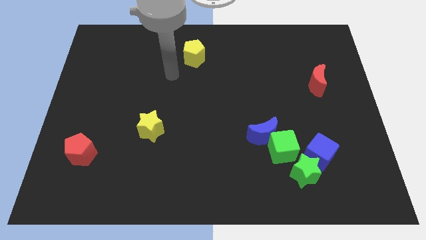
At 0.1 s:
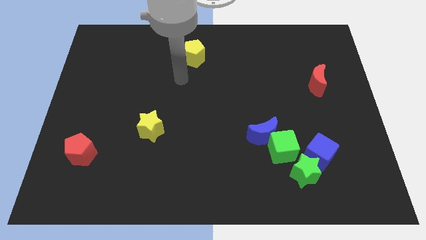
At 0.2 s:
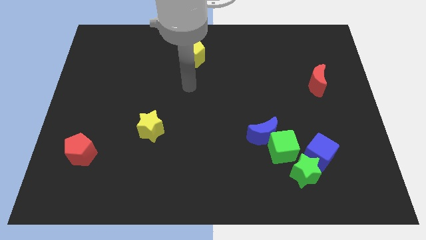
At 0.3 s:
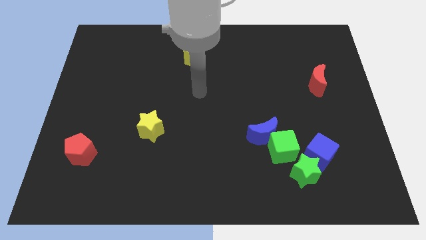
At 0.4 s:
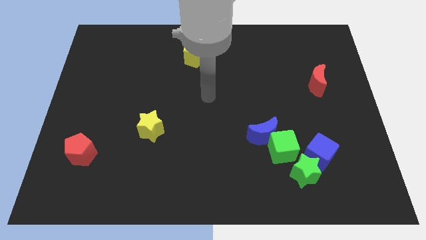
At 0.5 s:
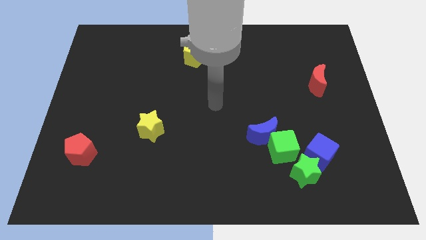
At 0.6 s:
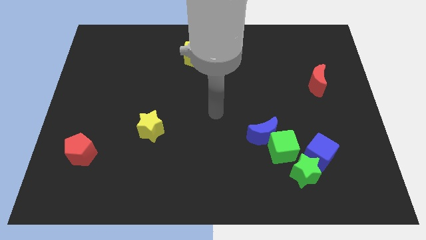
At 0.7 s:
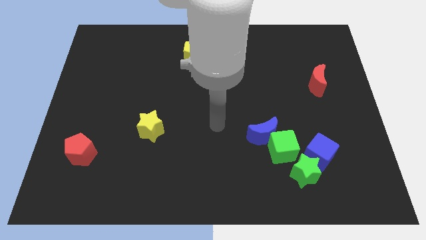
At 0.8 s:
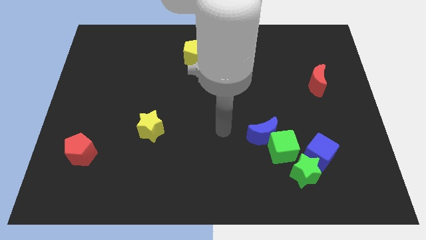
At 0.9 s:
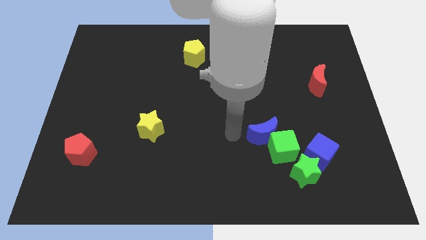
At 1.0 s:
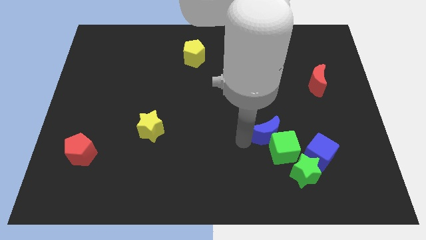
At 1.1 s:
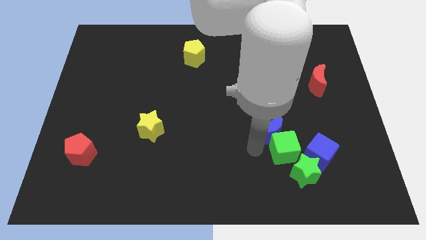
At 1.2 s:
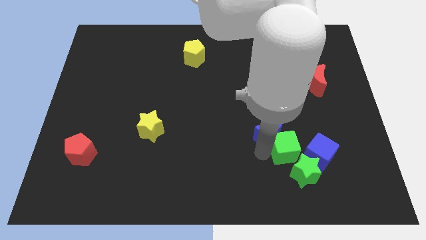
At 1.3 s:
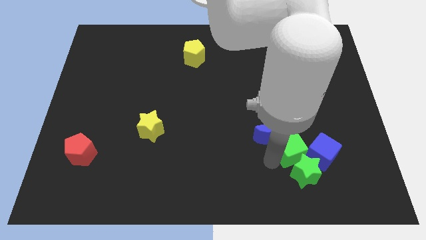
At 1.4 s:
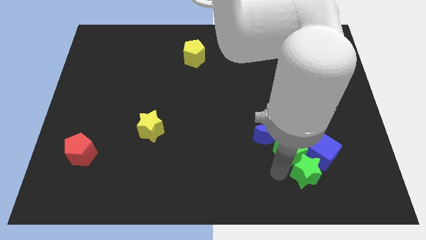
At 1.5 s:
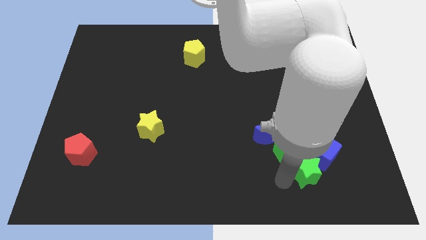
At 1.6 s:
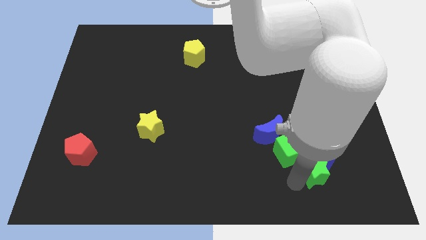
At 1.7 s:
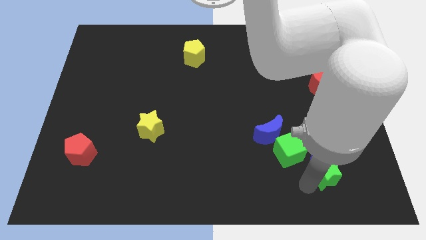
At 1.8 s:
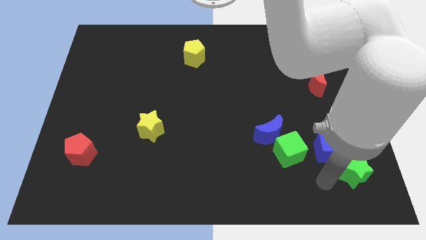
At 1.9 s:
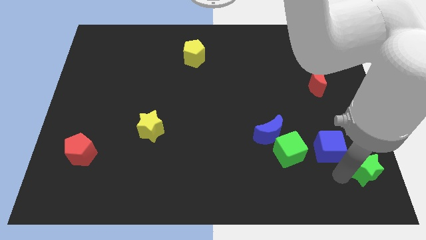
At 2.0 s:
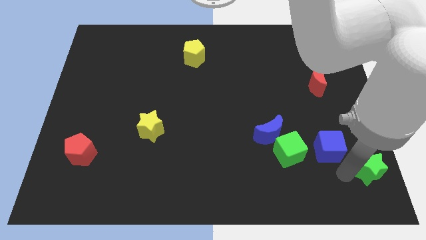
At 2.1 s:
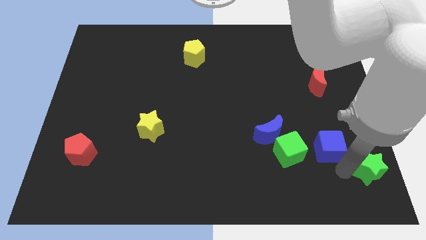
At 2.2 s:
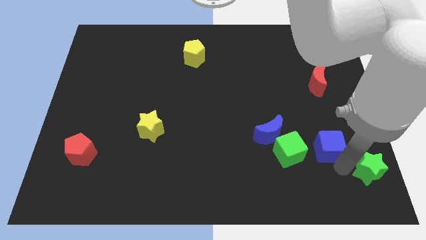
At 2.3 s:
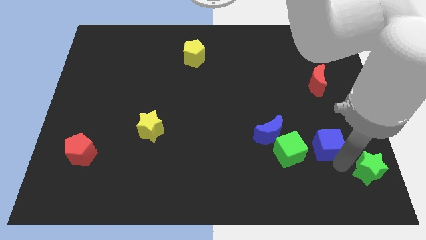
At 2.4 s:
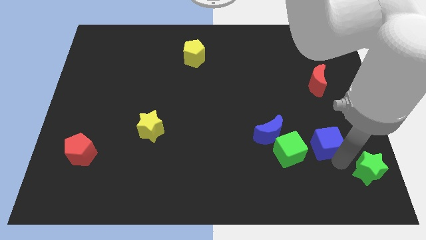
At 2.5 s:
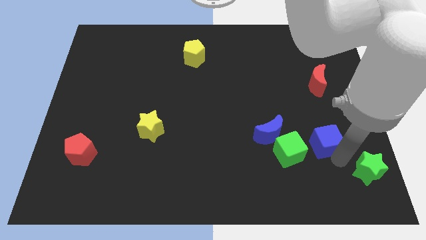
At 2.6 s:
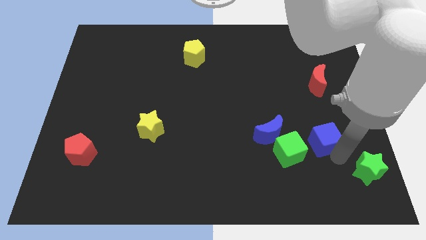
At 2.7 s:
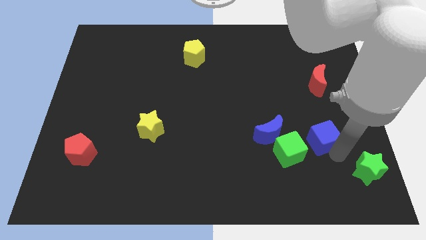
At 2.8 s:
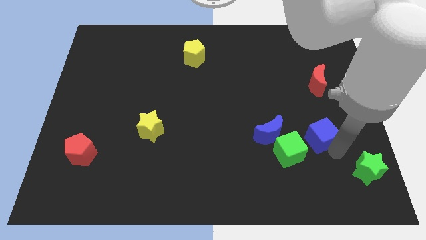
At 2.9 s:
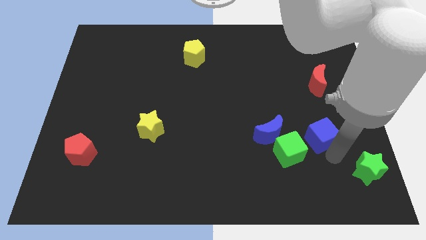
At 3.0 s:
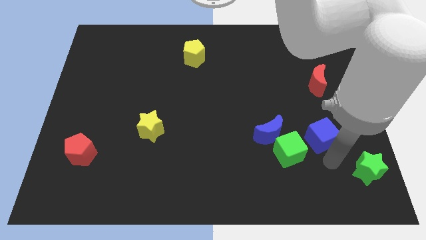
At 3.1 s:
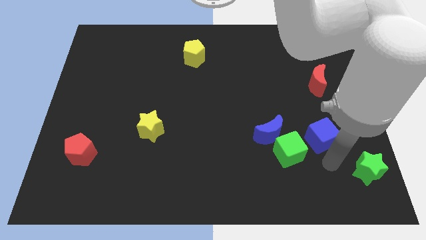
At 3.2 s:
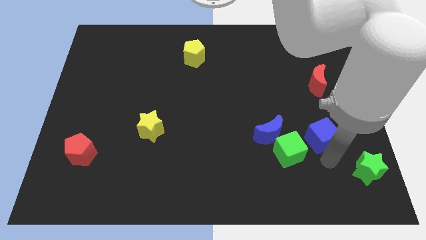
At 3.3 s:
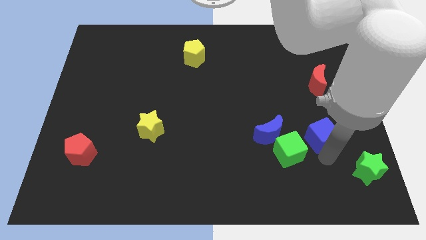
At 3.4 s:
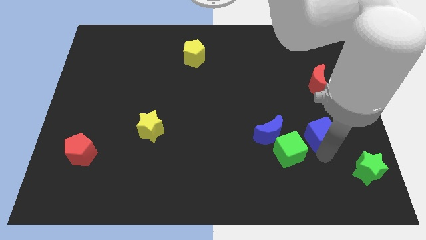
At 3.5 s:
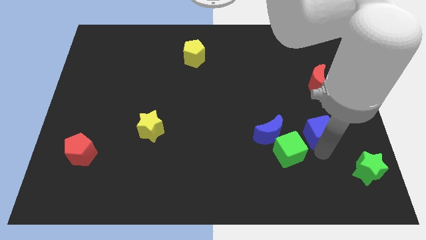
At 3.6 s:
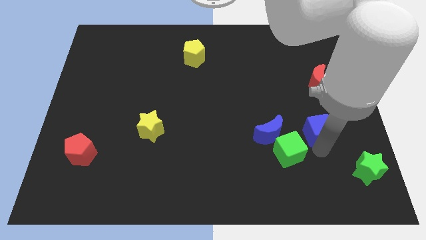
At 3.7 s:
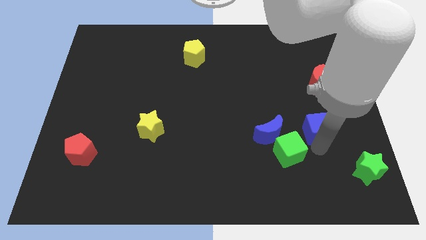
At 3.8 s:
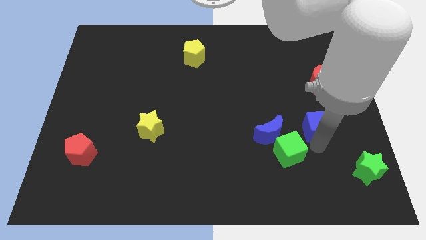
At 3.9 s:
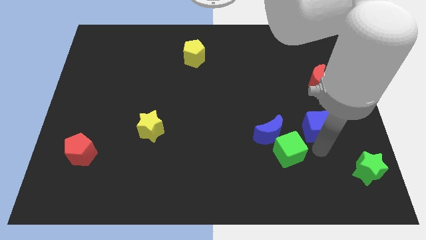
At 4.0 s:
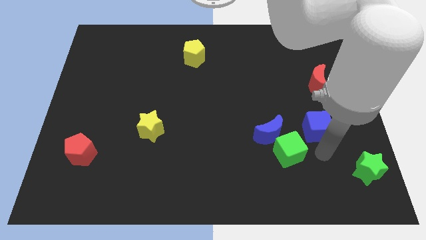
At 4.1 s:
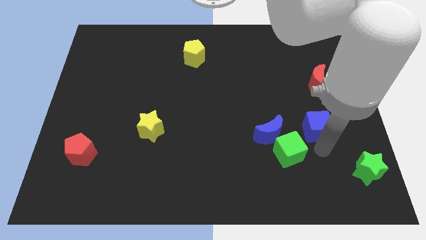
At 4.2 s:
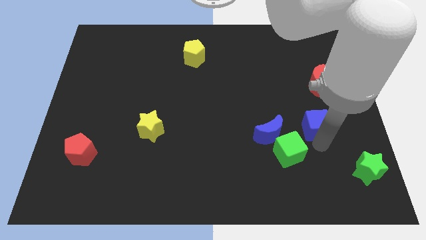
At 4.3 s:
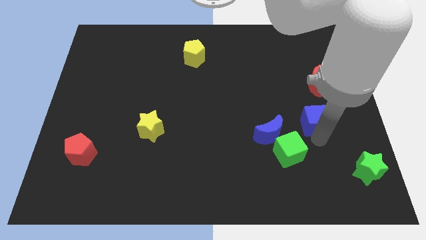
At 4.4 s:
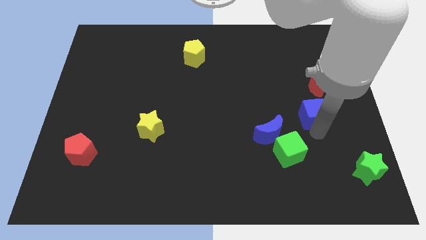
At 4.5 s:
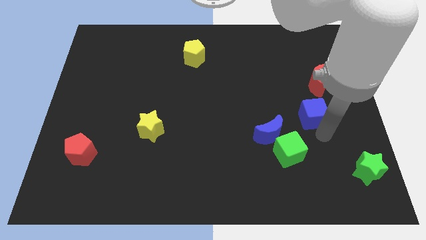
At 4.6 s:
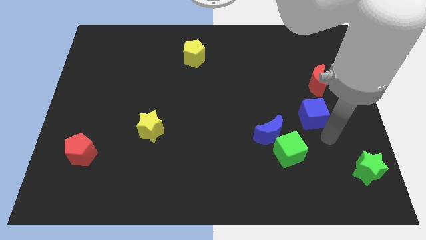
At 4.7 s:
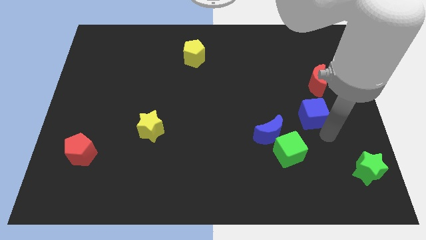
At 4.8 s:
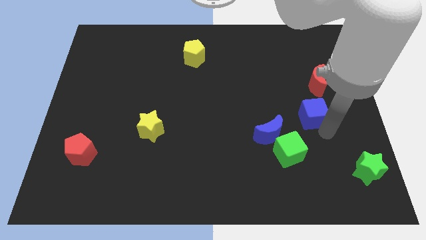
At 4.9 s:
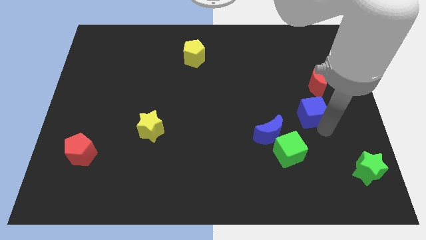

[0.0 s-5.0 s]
push the blue cube diagonally down and to the left of the red moon

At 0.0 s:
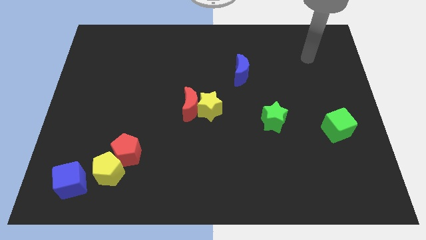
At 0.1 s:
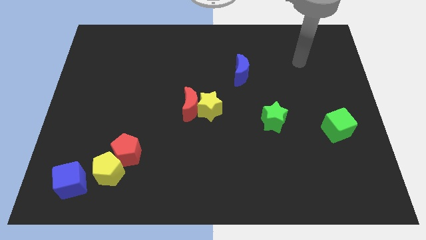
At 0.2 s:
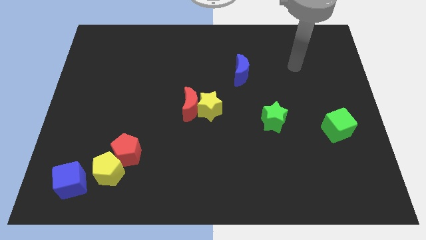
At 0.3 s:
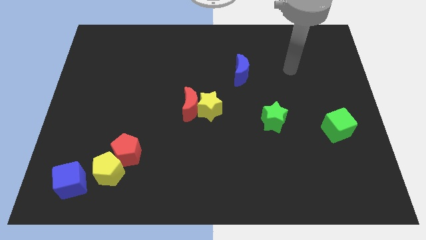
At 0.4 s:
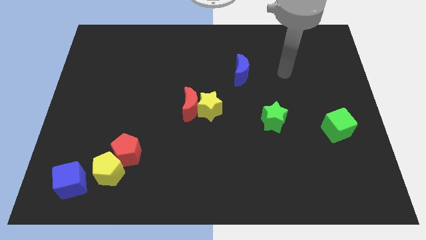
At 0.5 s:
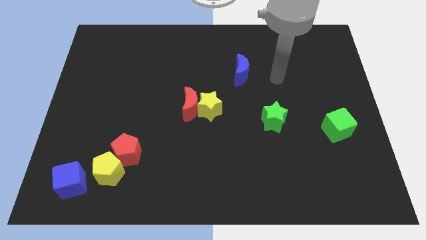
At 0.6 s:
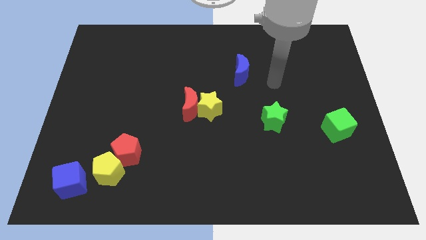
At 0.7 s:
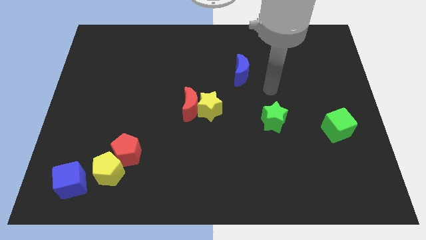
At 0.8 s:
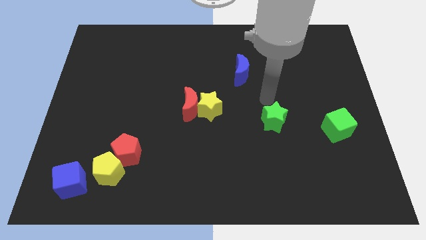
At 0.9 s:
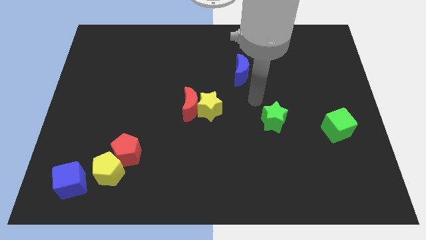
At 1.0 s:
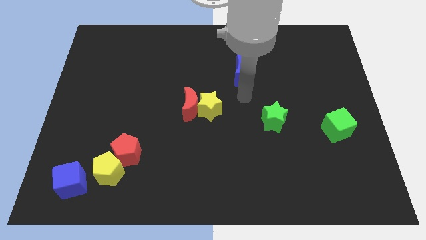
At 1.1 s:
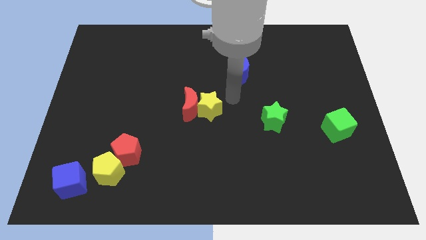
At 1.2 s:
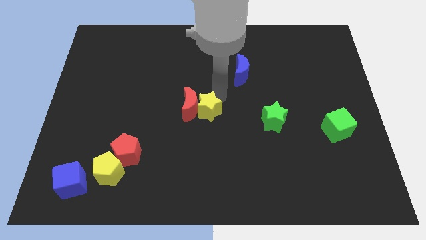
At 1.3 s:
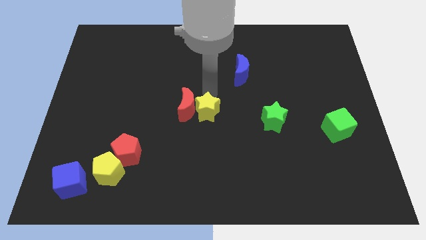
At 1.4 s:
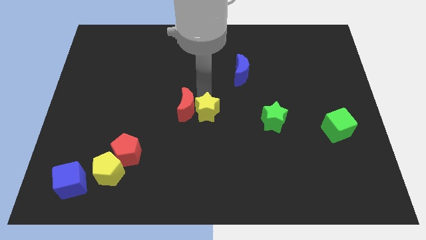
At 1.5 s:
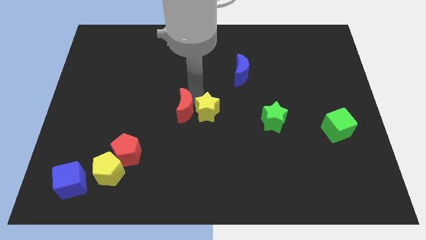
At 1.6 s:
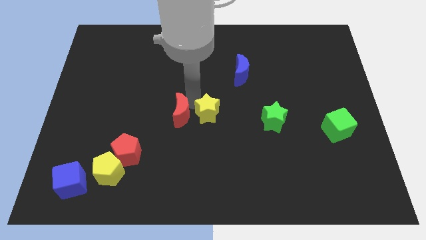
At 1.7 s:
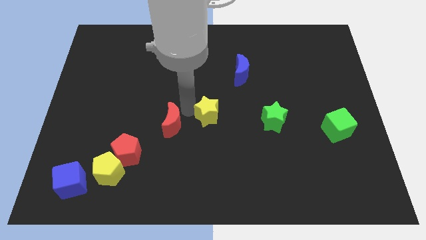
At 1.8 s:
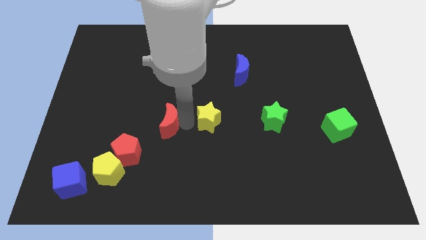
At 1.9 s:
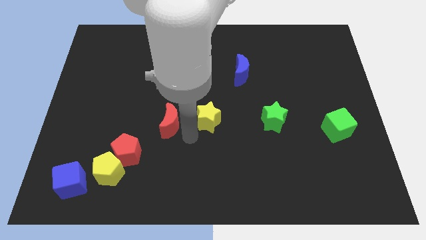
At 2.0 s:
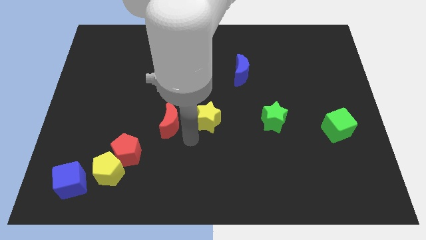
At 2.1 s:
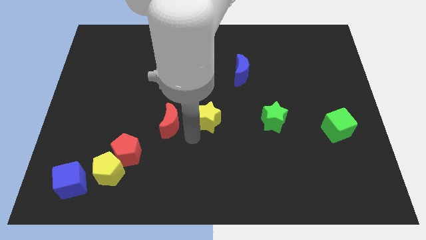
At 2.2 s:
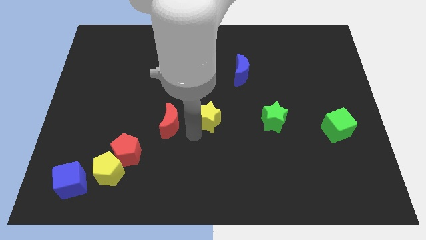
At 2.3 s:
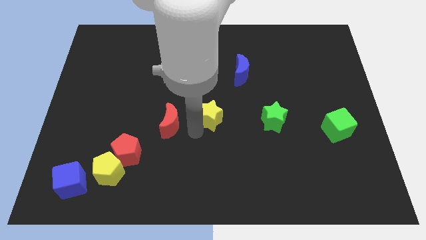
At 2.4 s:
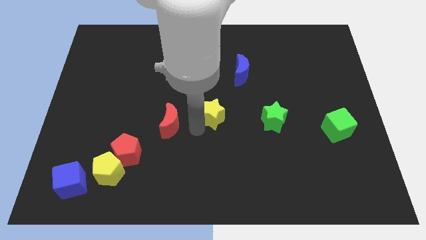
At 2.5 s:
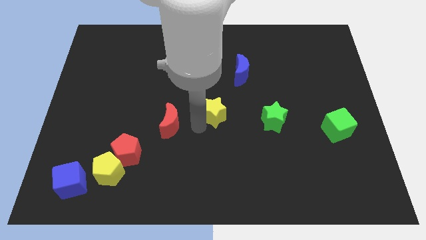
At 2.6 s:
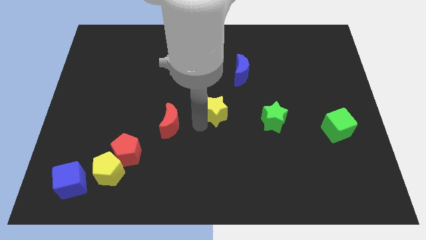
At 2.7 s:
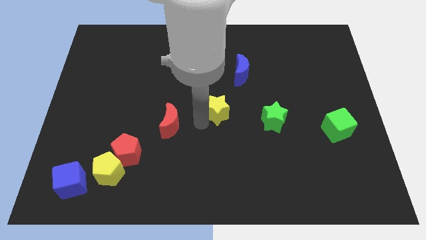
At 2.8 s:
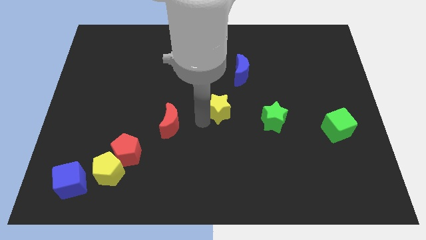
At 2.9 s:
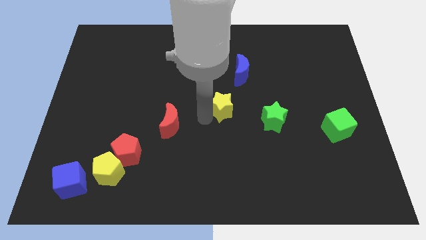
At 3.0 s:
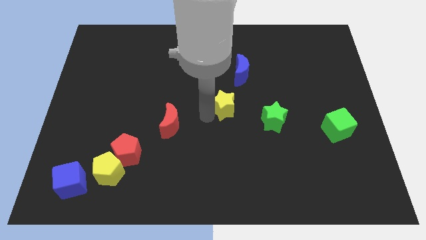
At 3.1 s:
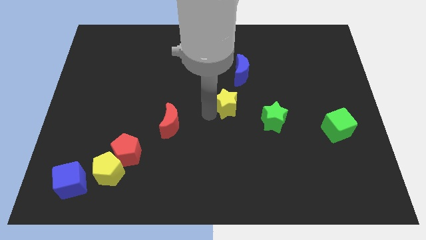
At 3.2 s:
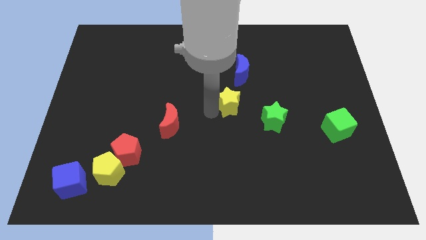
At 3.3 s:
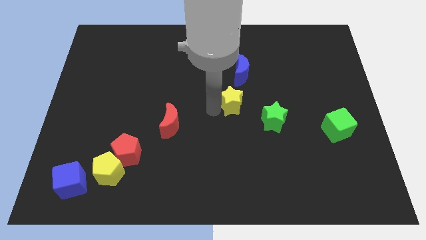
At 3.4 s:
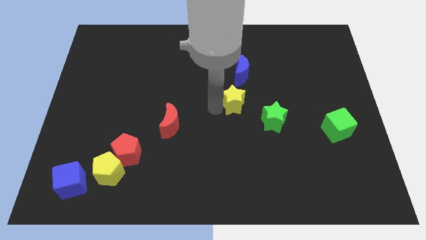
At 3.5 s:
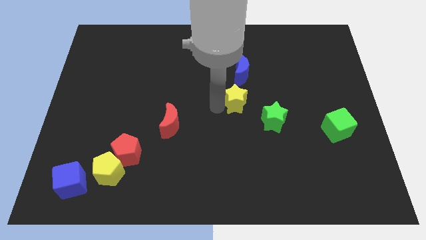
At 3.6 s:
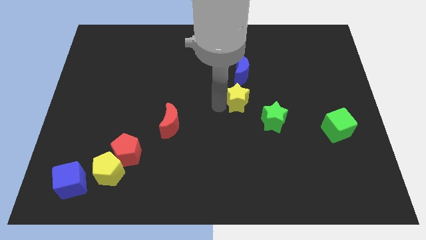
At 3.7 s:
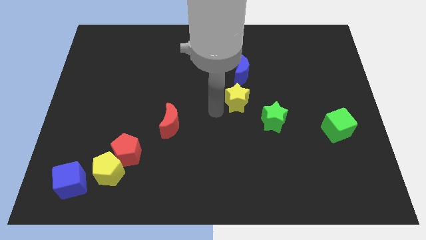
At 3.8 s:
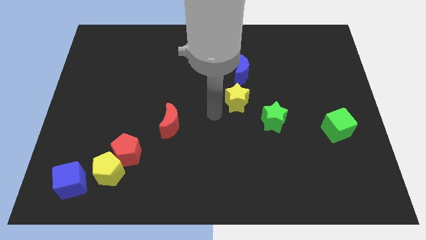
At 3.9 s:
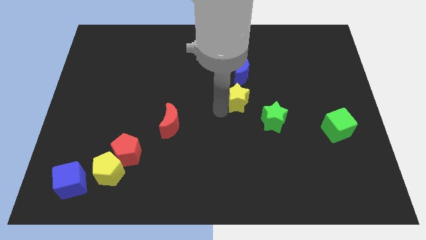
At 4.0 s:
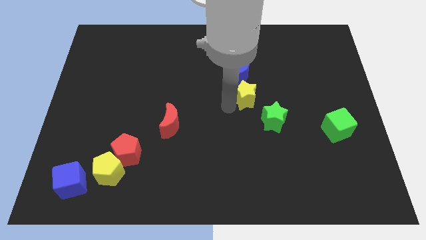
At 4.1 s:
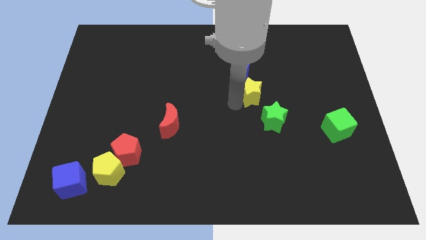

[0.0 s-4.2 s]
push the yellow star diagonally down and to the right of the blue moon
